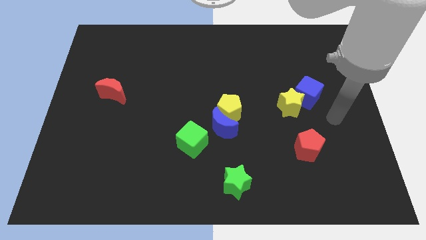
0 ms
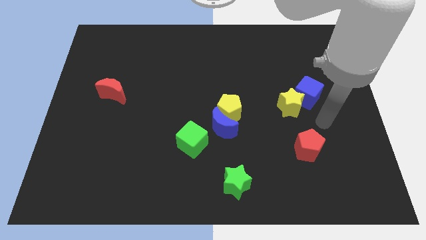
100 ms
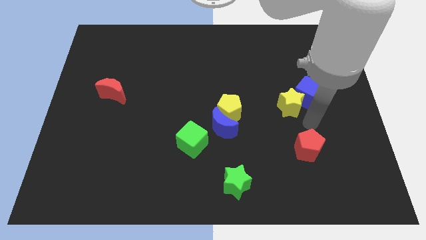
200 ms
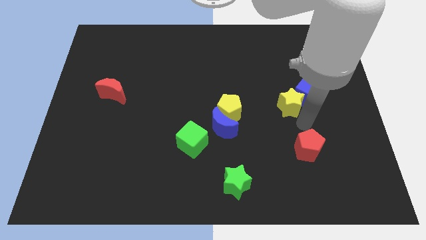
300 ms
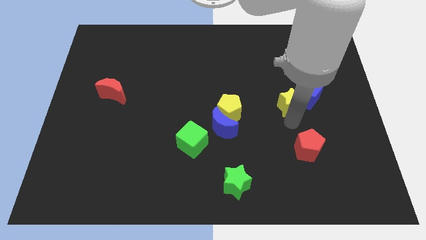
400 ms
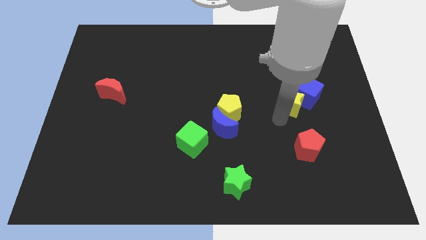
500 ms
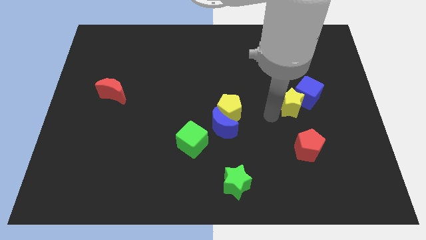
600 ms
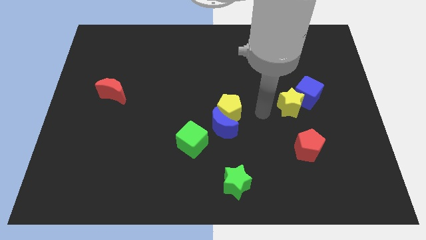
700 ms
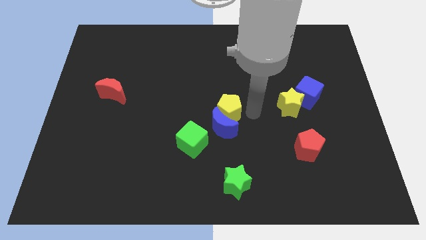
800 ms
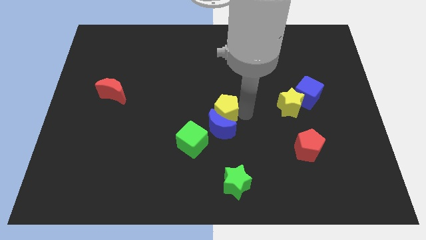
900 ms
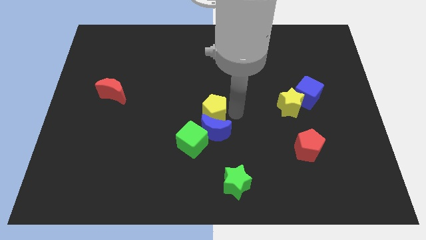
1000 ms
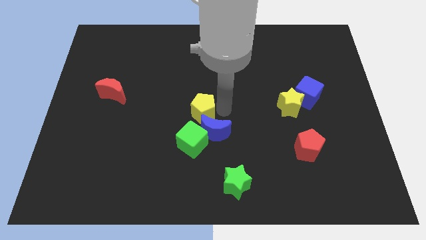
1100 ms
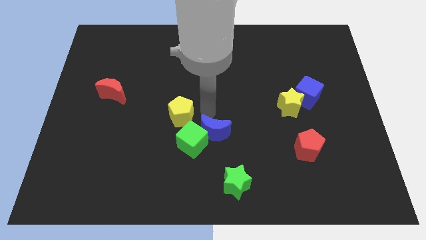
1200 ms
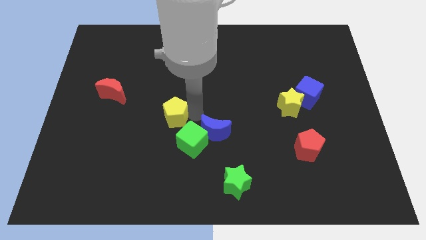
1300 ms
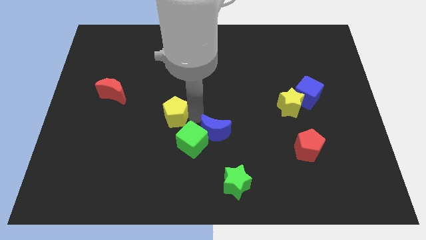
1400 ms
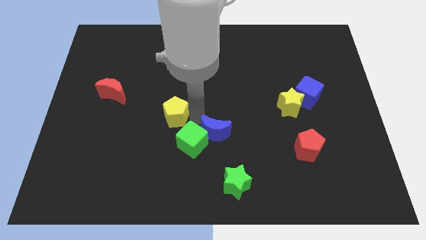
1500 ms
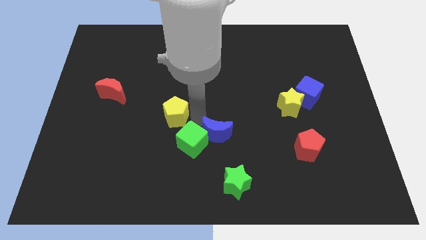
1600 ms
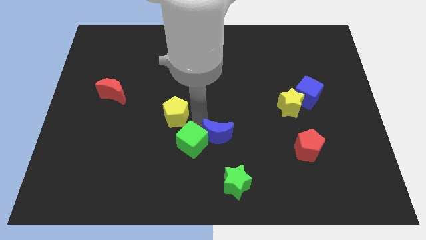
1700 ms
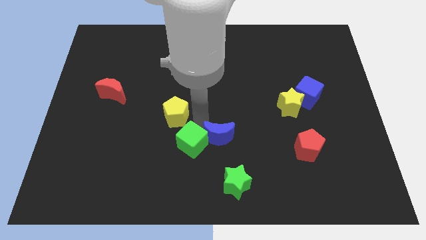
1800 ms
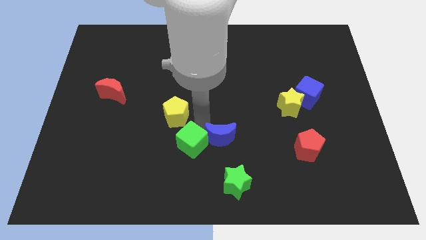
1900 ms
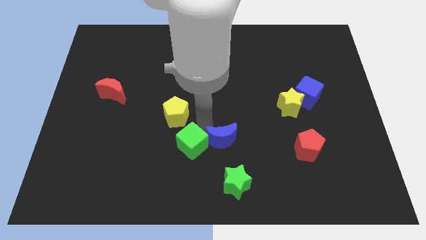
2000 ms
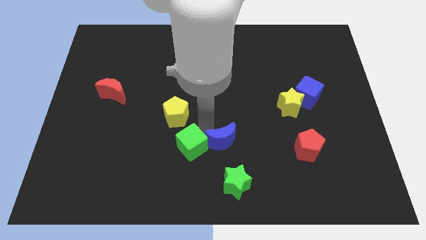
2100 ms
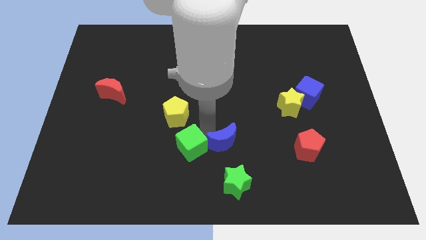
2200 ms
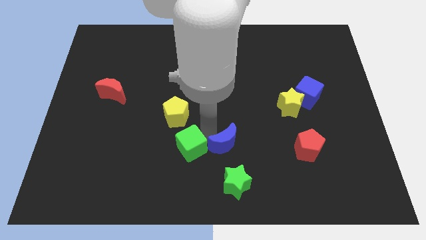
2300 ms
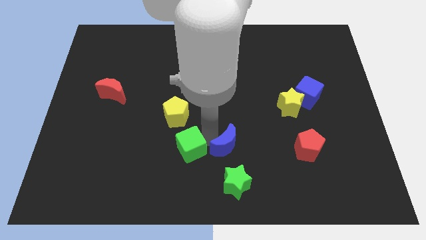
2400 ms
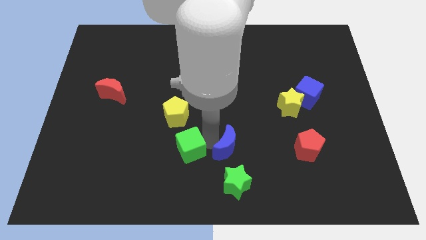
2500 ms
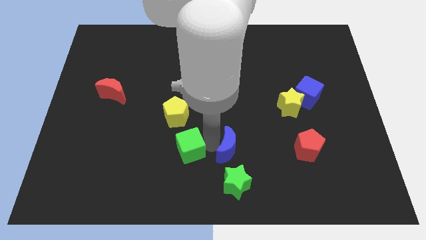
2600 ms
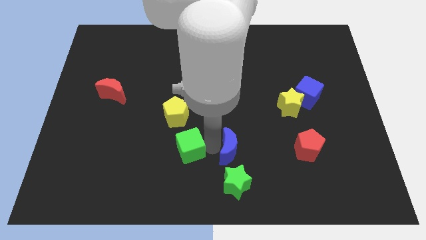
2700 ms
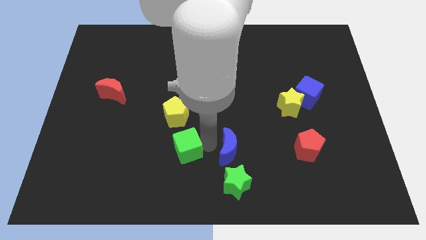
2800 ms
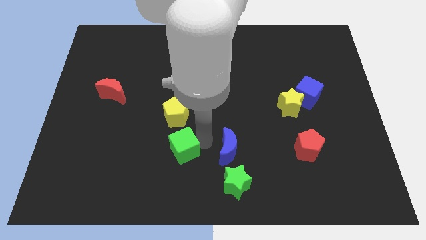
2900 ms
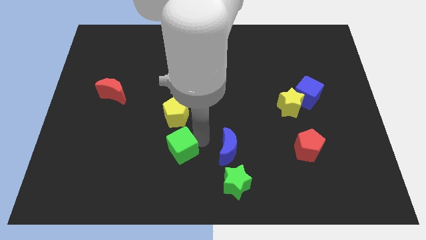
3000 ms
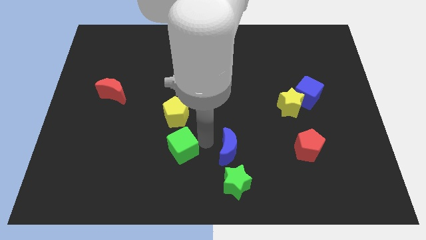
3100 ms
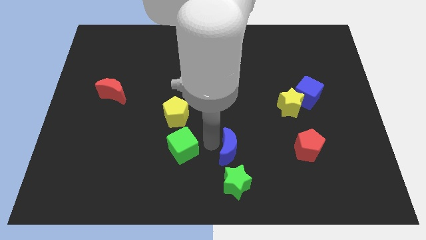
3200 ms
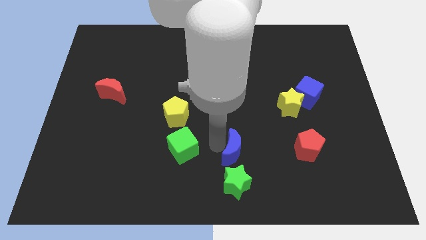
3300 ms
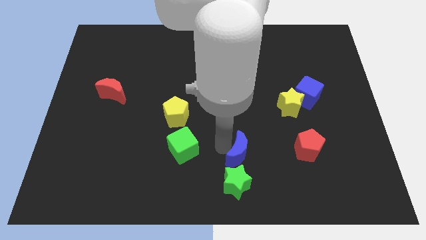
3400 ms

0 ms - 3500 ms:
move the blue moon a little bit diagonally down and right

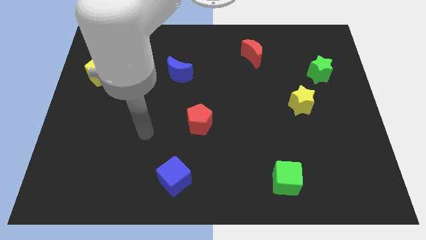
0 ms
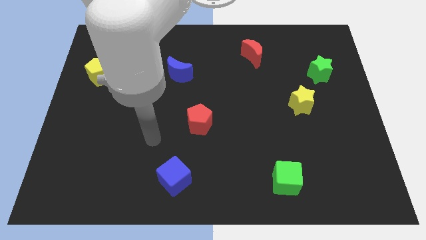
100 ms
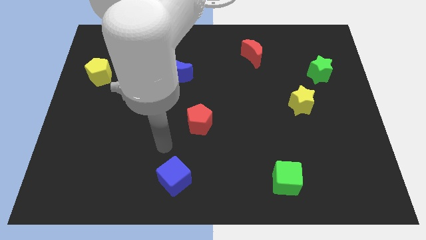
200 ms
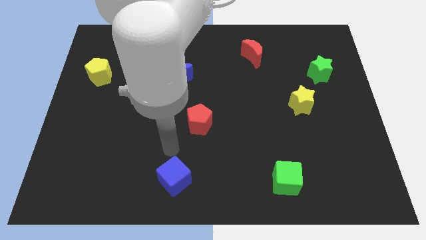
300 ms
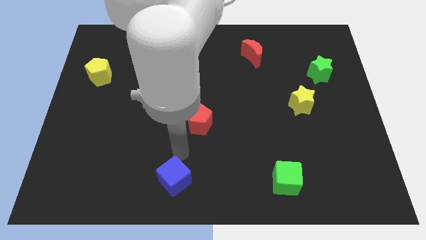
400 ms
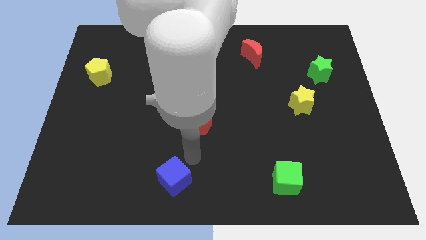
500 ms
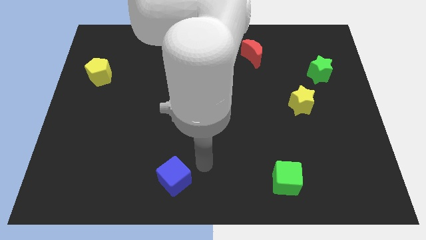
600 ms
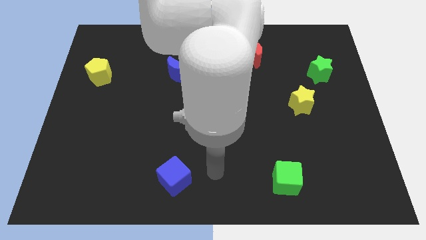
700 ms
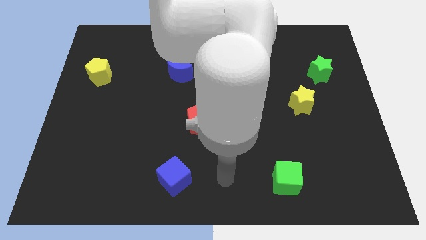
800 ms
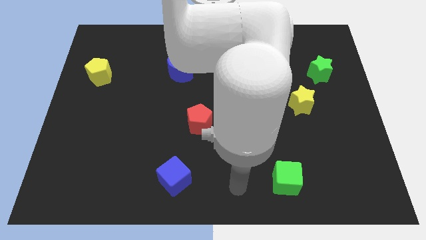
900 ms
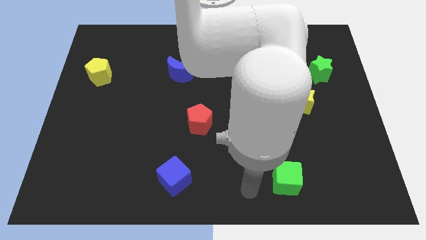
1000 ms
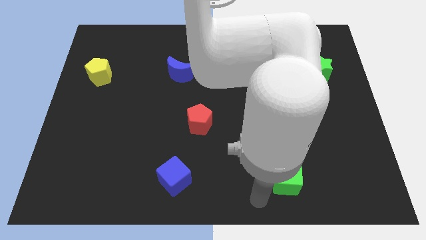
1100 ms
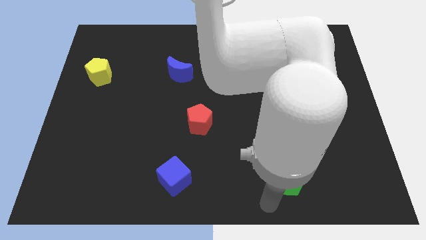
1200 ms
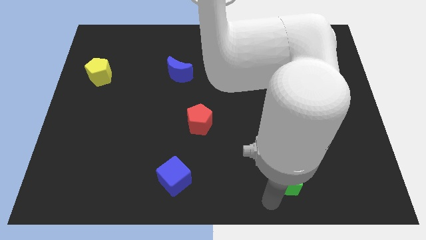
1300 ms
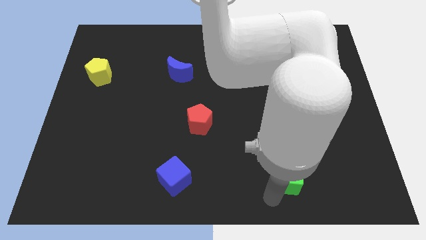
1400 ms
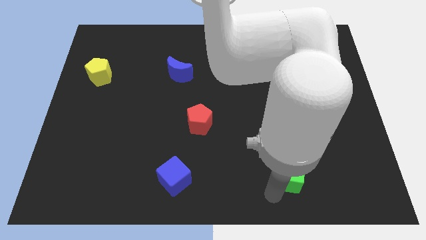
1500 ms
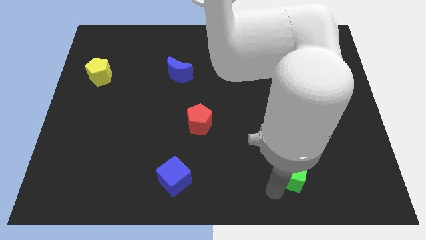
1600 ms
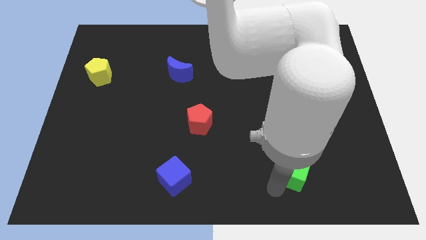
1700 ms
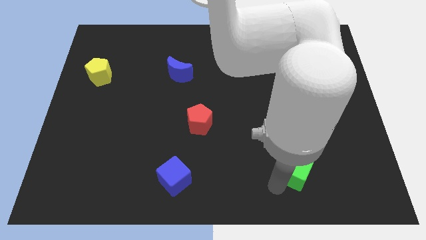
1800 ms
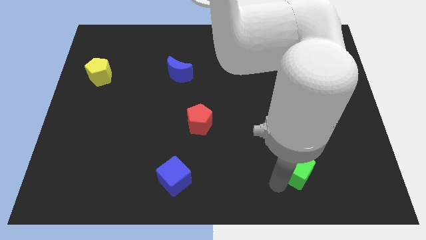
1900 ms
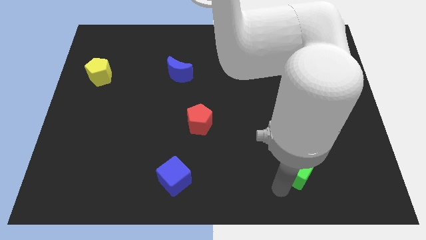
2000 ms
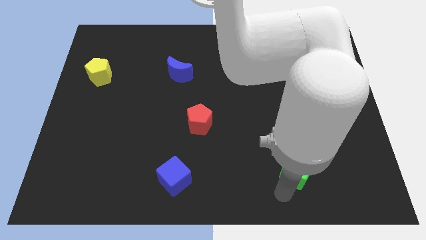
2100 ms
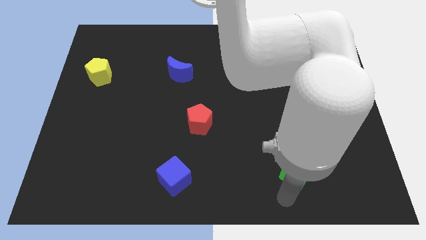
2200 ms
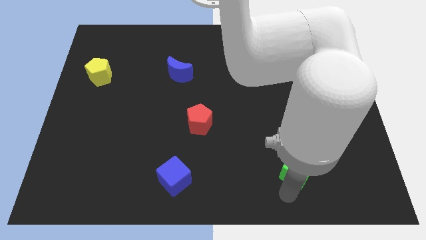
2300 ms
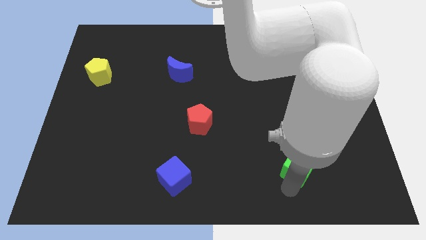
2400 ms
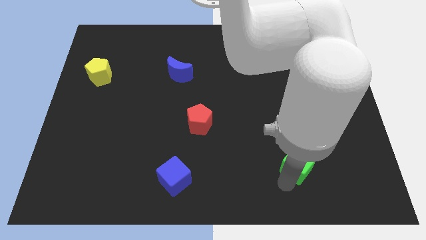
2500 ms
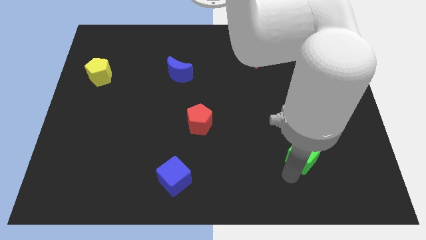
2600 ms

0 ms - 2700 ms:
slide the green cube slightly up and to the right diagonally

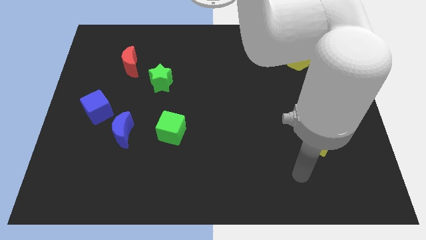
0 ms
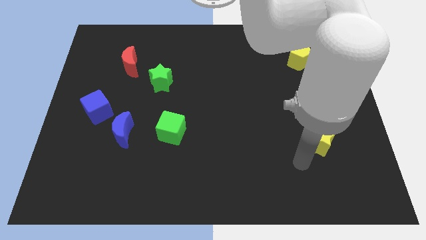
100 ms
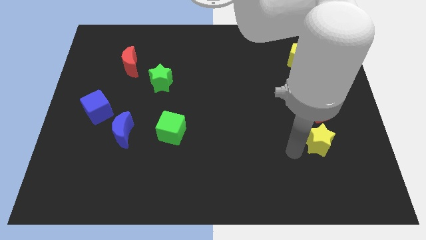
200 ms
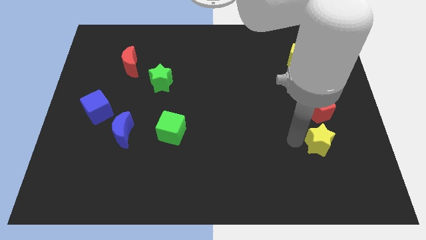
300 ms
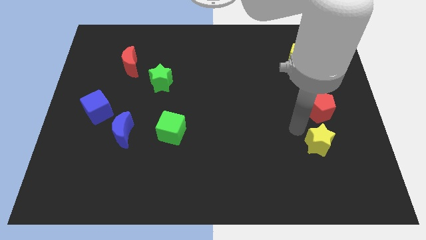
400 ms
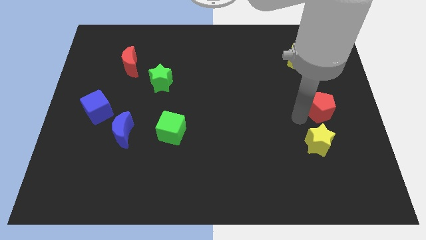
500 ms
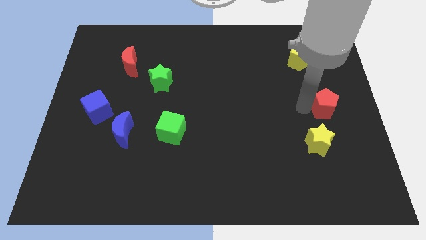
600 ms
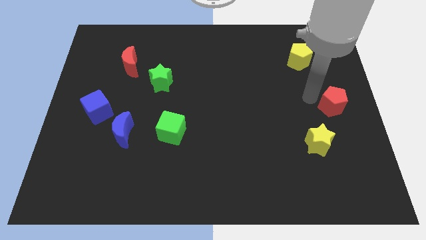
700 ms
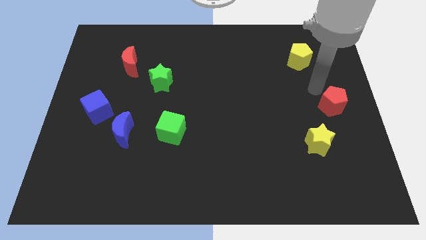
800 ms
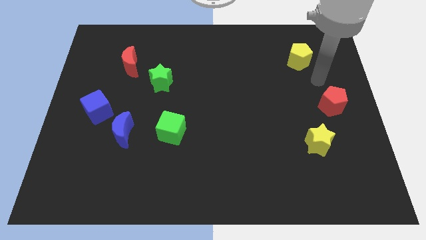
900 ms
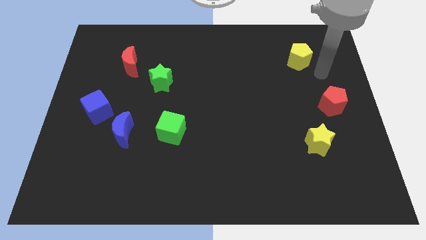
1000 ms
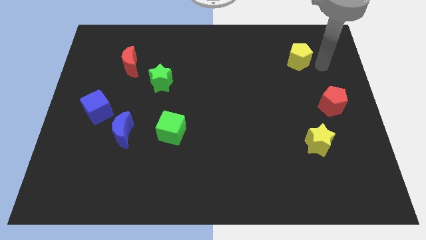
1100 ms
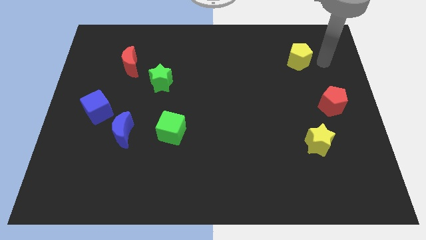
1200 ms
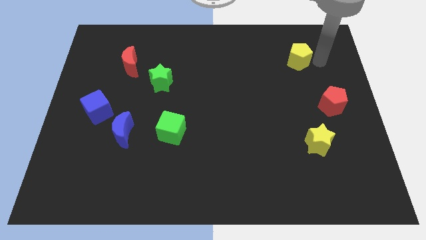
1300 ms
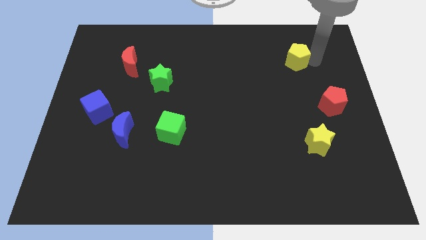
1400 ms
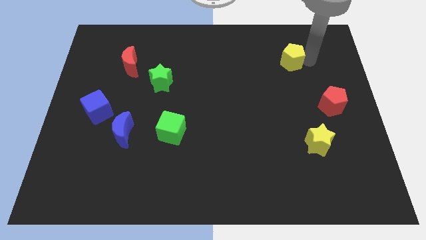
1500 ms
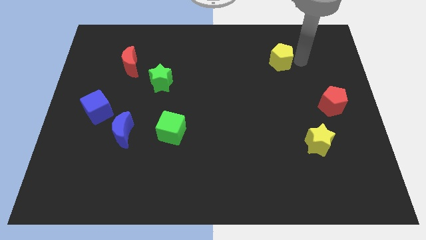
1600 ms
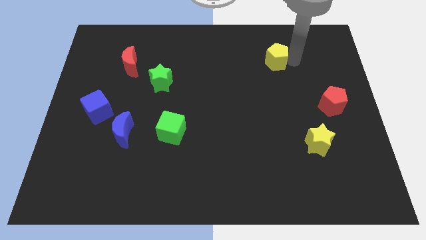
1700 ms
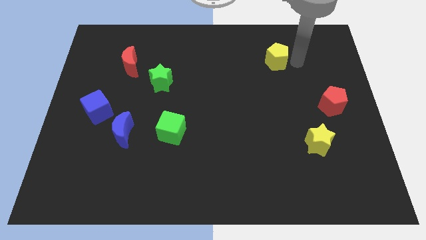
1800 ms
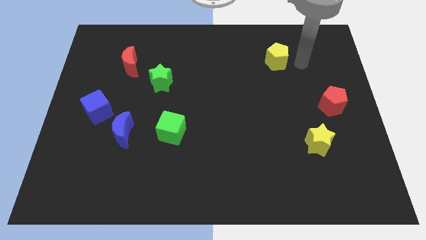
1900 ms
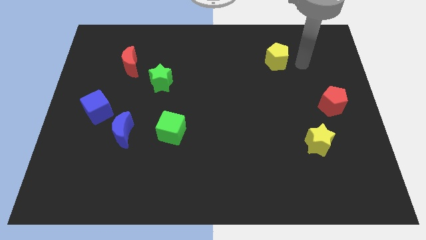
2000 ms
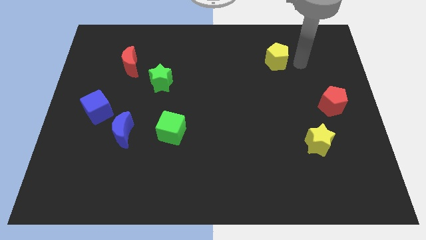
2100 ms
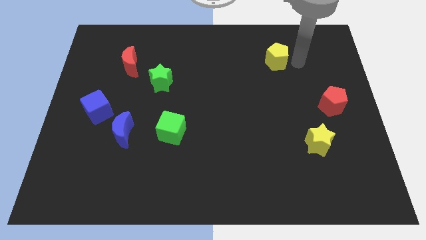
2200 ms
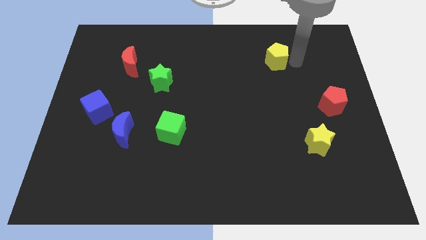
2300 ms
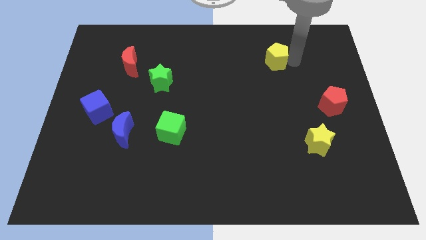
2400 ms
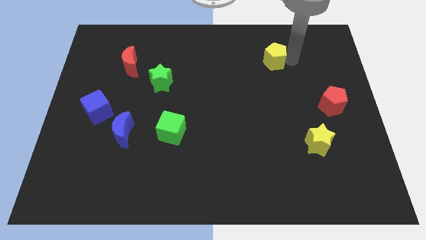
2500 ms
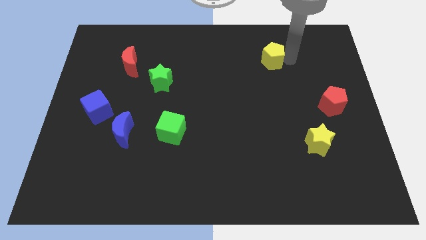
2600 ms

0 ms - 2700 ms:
slightly slide the yellow pentagon left
